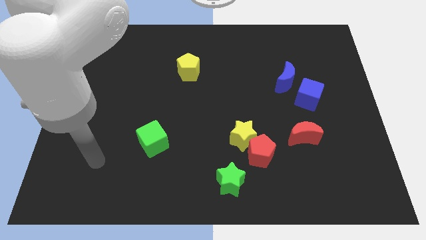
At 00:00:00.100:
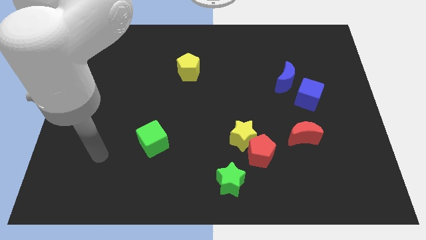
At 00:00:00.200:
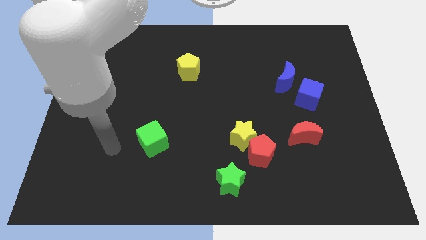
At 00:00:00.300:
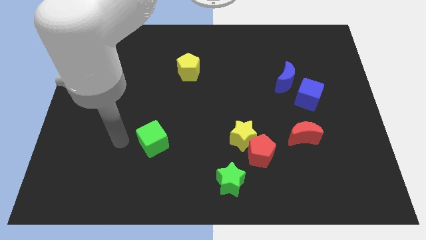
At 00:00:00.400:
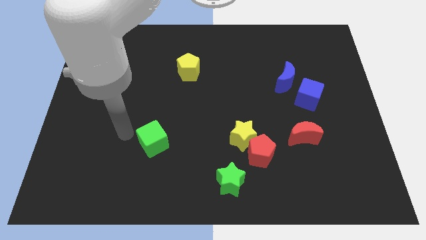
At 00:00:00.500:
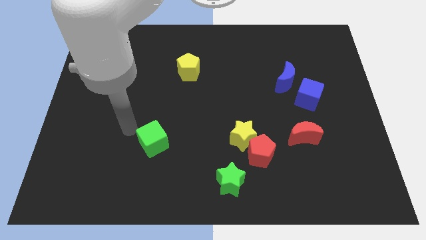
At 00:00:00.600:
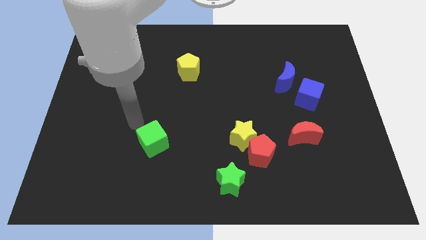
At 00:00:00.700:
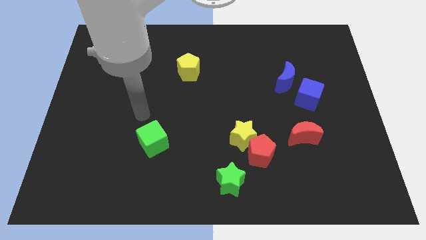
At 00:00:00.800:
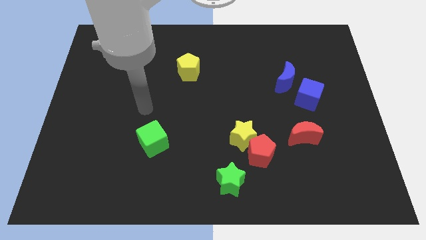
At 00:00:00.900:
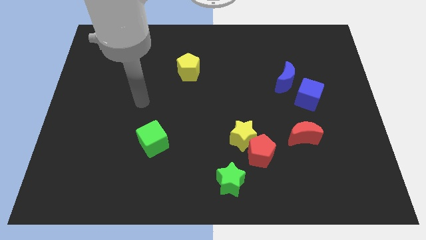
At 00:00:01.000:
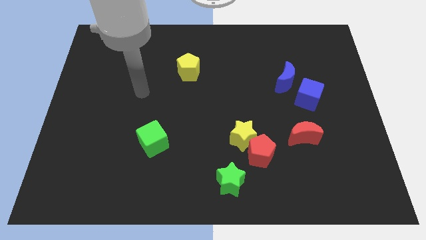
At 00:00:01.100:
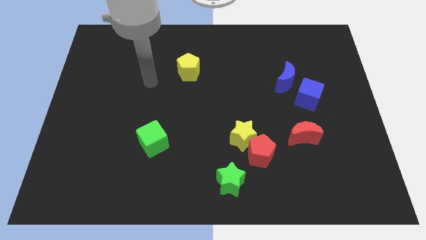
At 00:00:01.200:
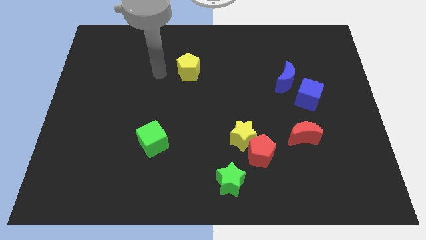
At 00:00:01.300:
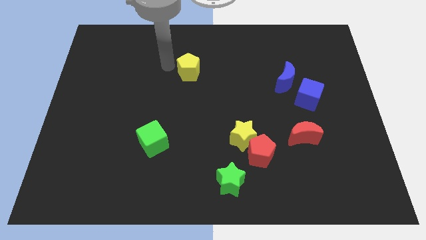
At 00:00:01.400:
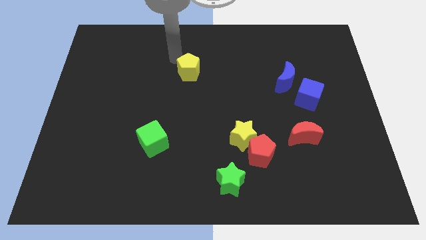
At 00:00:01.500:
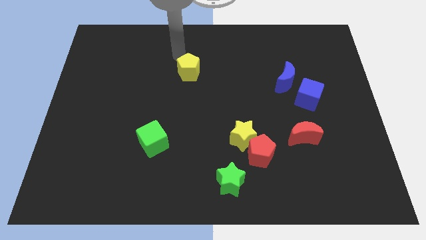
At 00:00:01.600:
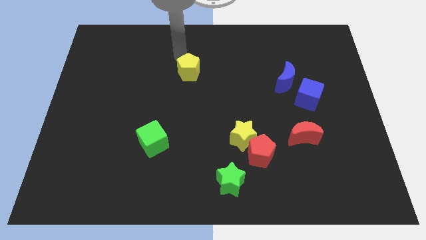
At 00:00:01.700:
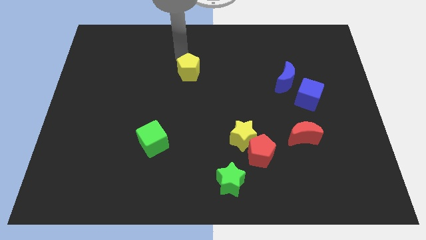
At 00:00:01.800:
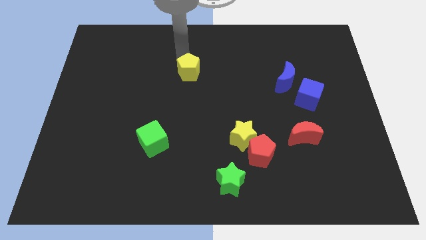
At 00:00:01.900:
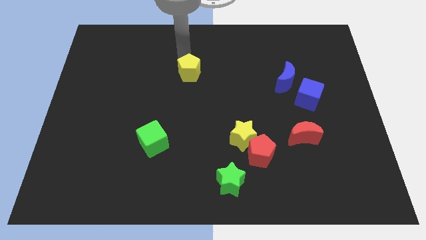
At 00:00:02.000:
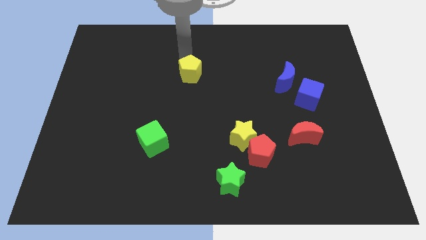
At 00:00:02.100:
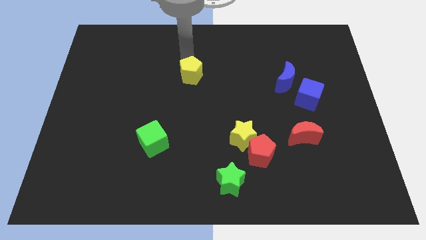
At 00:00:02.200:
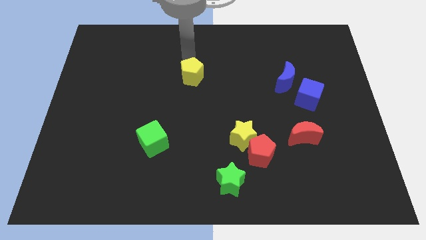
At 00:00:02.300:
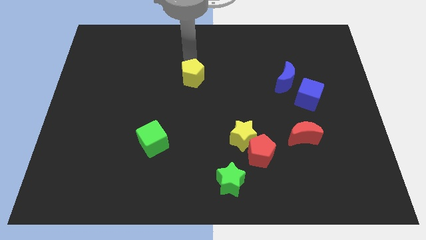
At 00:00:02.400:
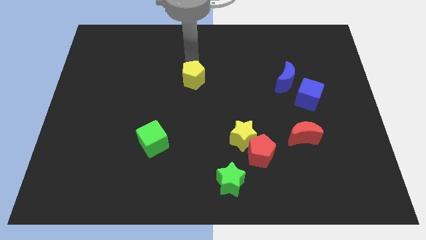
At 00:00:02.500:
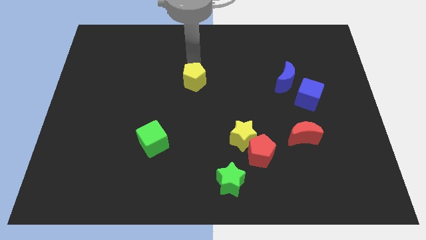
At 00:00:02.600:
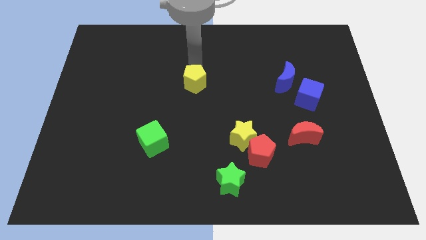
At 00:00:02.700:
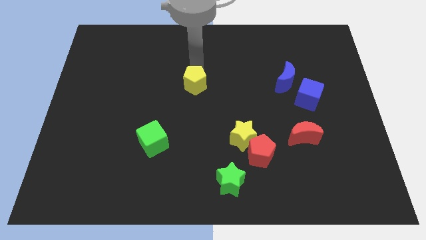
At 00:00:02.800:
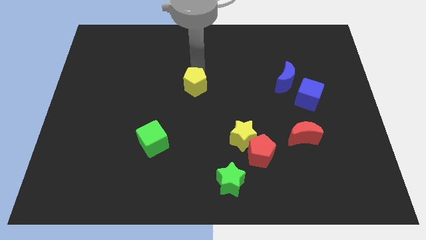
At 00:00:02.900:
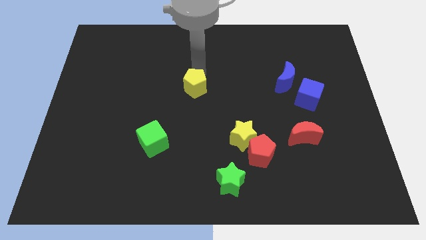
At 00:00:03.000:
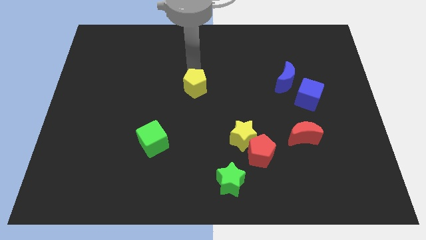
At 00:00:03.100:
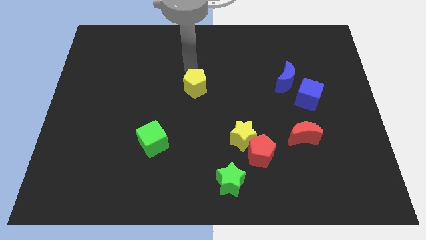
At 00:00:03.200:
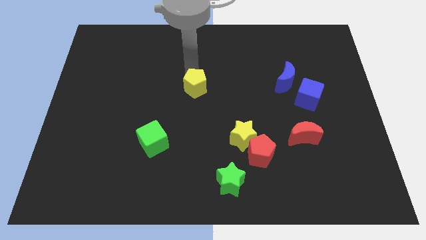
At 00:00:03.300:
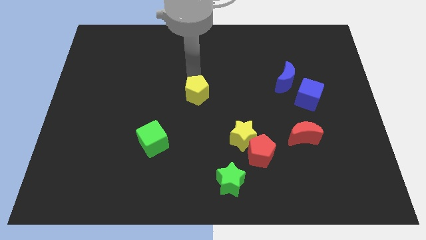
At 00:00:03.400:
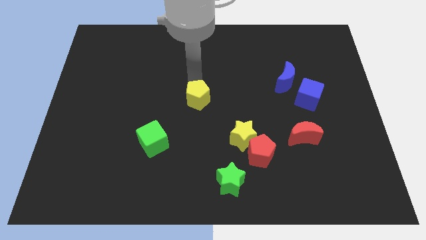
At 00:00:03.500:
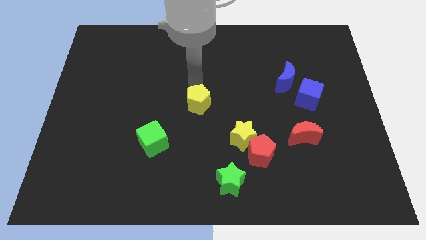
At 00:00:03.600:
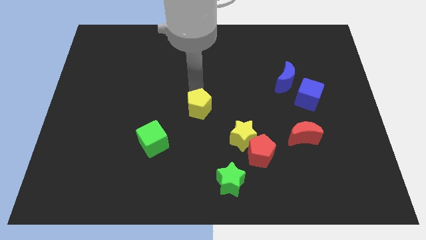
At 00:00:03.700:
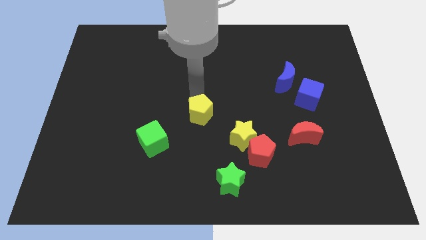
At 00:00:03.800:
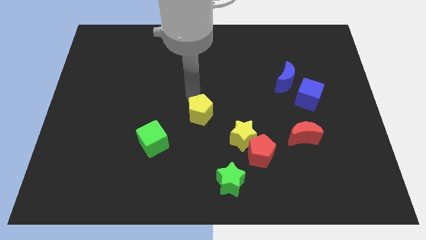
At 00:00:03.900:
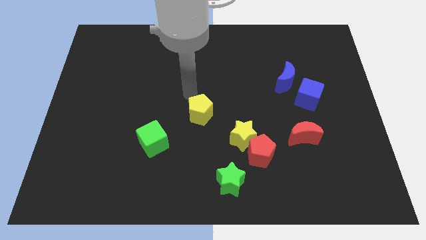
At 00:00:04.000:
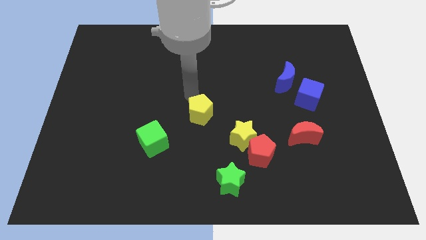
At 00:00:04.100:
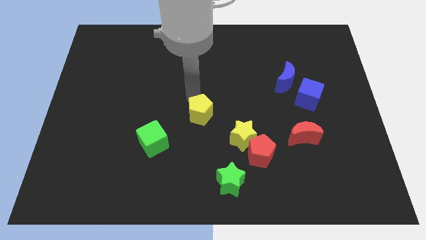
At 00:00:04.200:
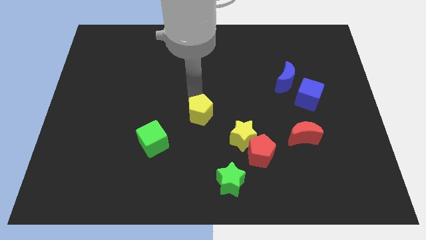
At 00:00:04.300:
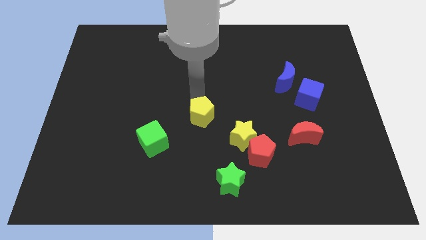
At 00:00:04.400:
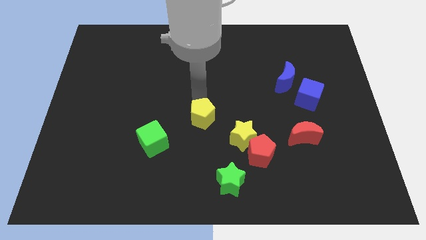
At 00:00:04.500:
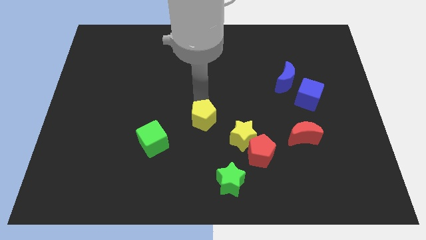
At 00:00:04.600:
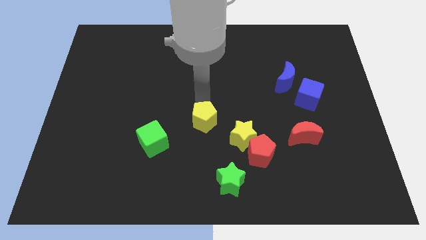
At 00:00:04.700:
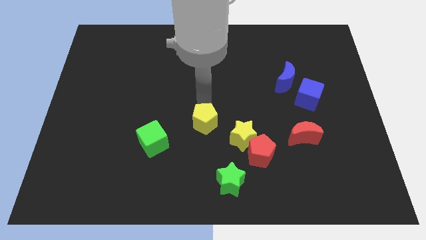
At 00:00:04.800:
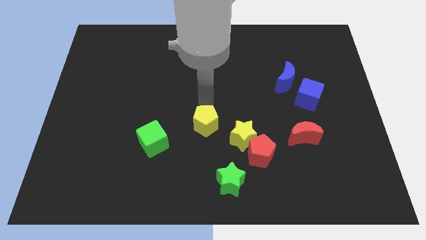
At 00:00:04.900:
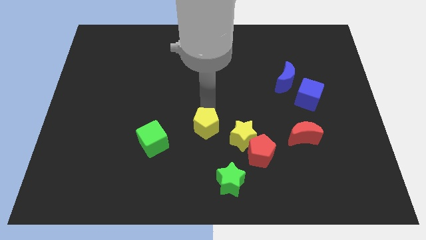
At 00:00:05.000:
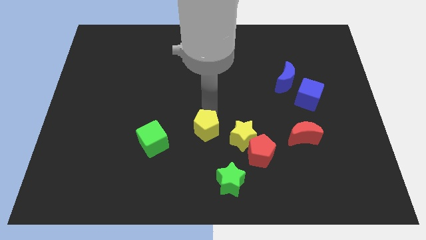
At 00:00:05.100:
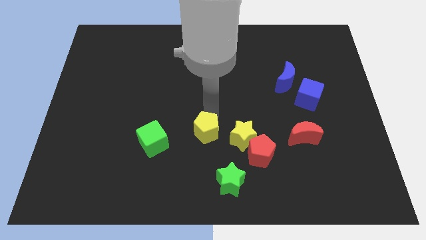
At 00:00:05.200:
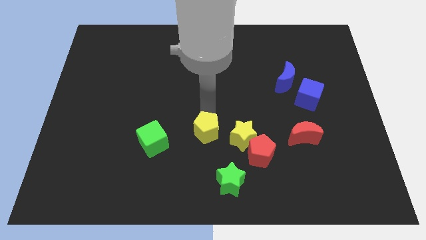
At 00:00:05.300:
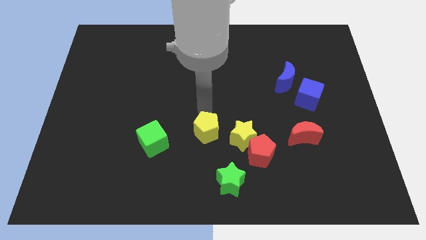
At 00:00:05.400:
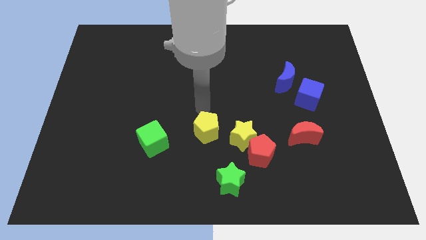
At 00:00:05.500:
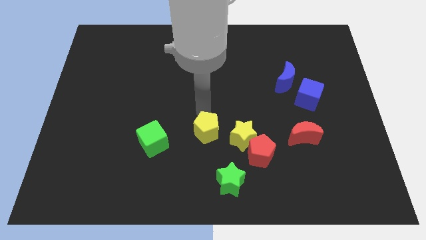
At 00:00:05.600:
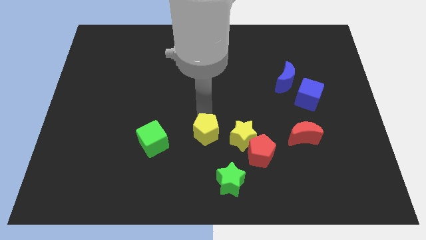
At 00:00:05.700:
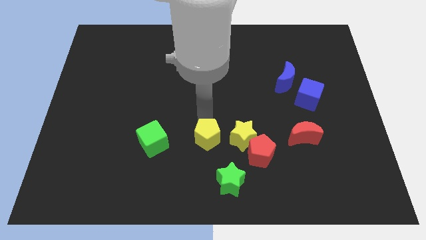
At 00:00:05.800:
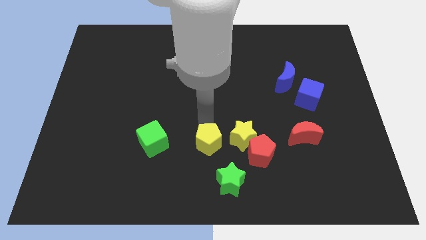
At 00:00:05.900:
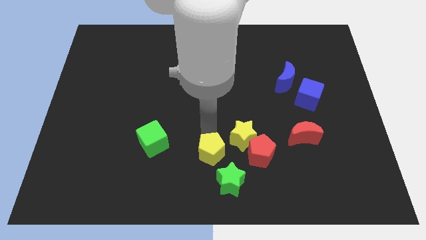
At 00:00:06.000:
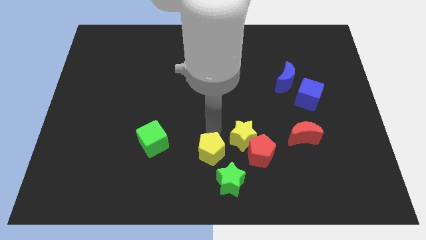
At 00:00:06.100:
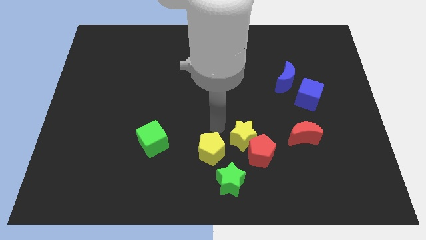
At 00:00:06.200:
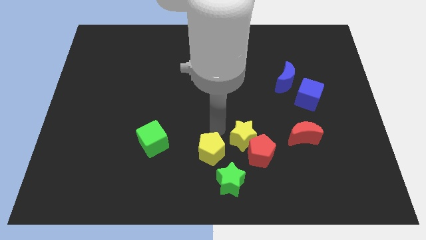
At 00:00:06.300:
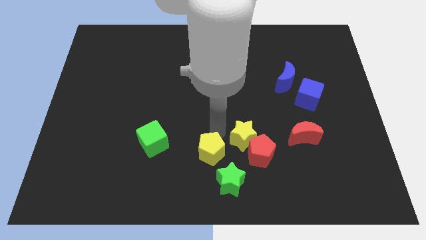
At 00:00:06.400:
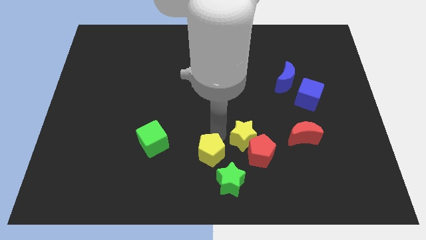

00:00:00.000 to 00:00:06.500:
put the yellow pentagon to the bottom
